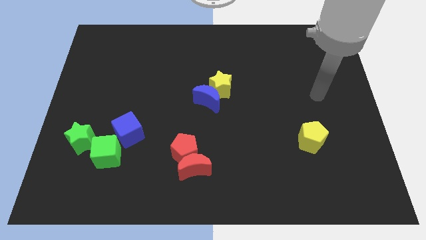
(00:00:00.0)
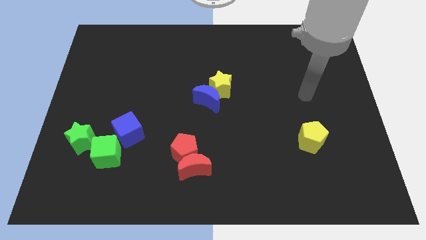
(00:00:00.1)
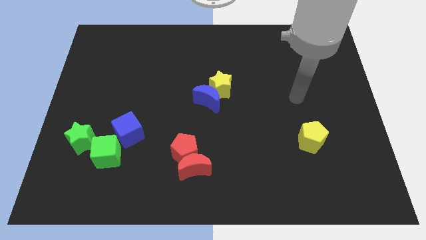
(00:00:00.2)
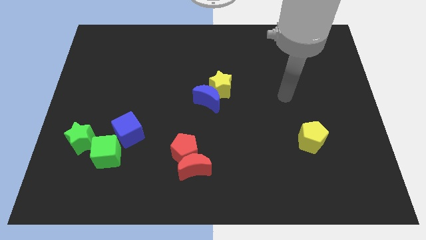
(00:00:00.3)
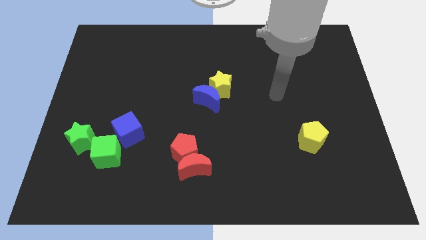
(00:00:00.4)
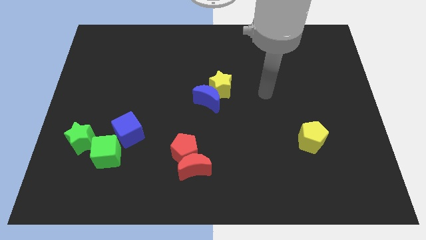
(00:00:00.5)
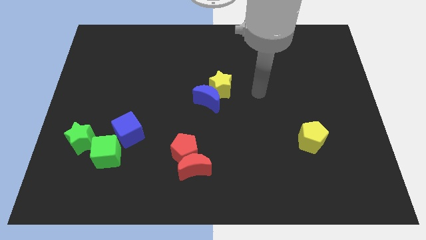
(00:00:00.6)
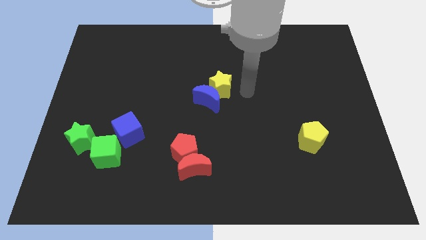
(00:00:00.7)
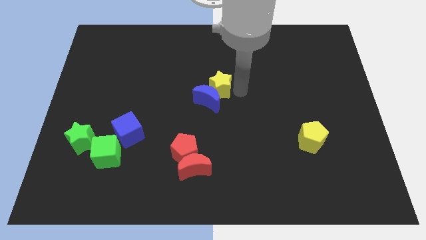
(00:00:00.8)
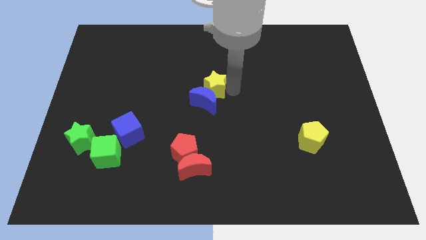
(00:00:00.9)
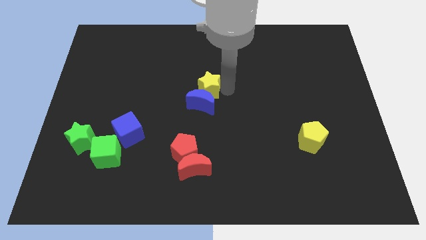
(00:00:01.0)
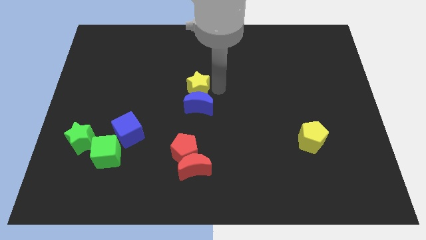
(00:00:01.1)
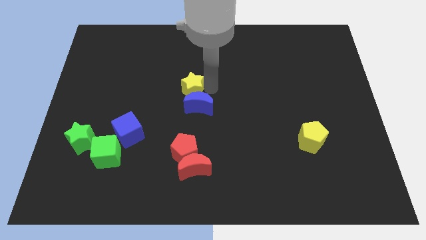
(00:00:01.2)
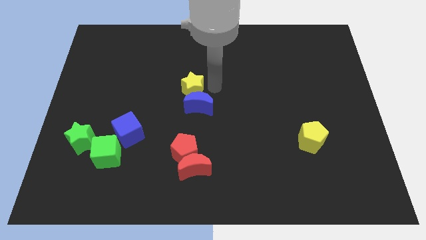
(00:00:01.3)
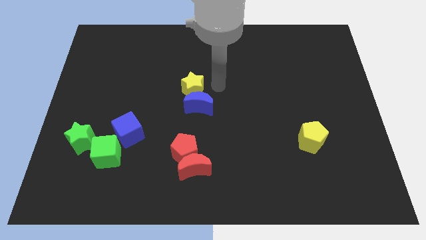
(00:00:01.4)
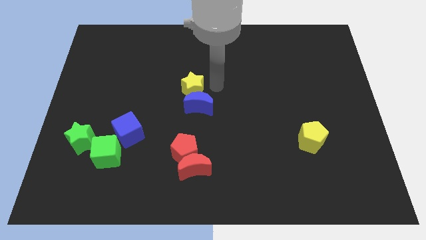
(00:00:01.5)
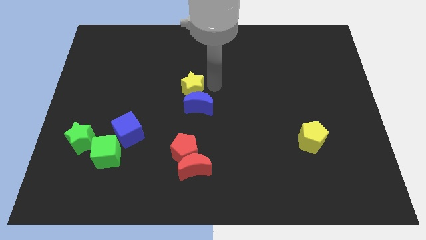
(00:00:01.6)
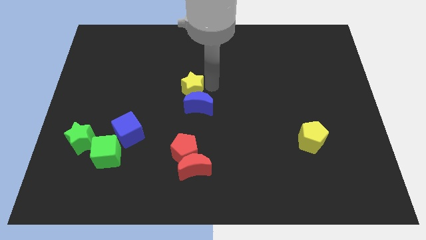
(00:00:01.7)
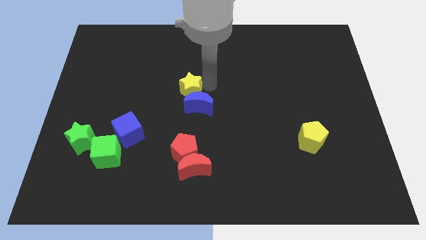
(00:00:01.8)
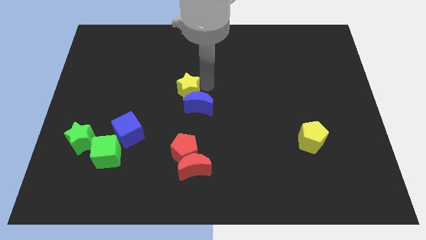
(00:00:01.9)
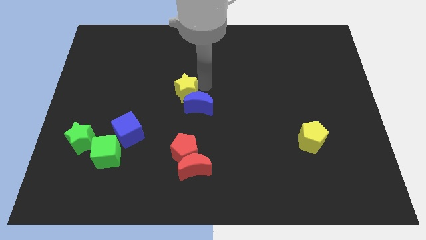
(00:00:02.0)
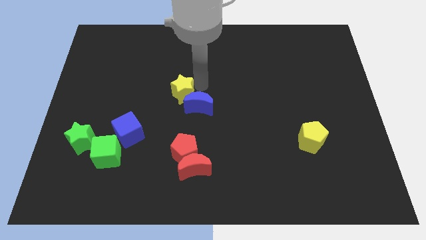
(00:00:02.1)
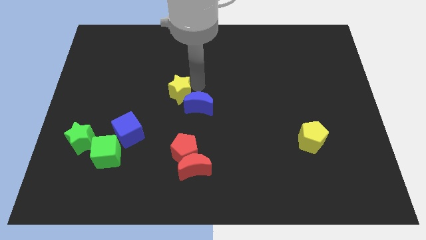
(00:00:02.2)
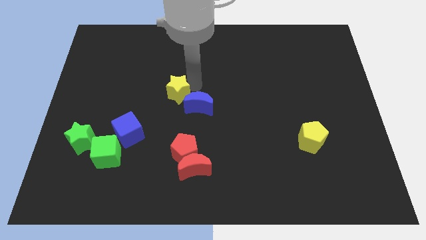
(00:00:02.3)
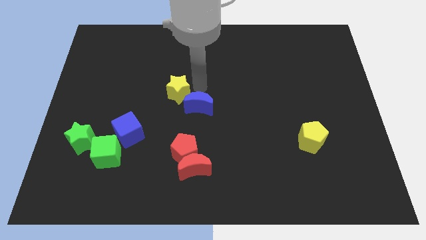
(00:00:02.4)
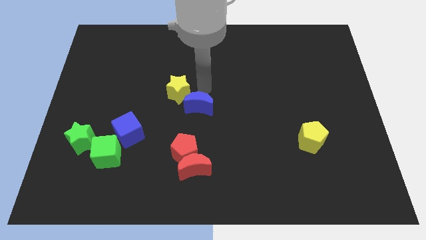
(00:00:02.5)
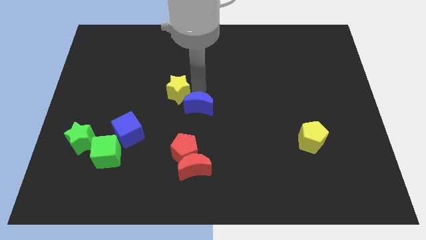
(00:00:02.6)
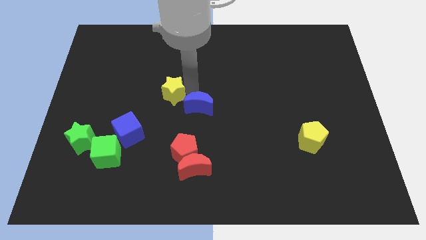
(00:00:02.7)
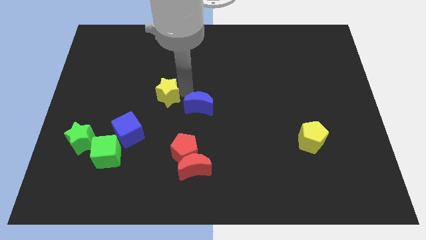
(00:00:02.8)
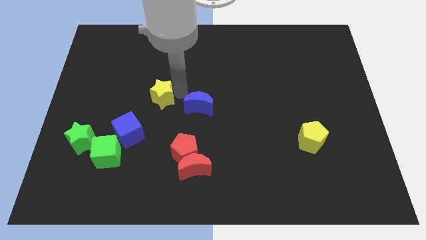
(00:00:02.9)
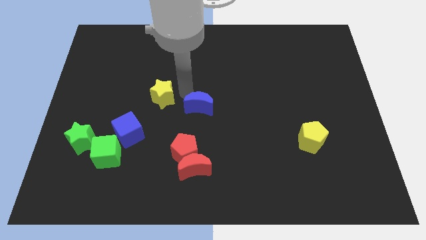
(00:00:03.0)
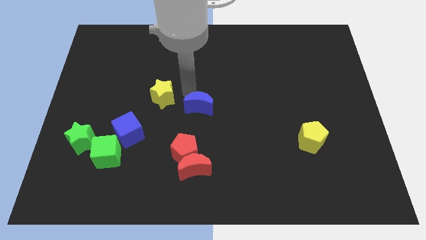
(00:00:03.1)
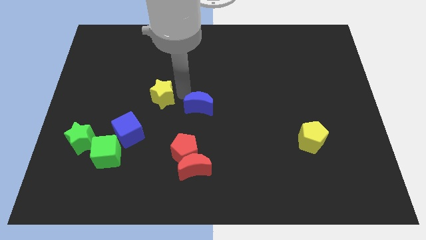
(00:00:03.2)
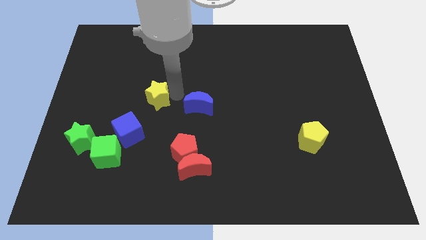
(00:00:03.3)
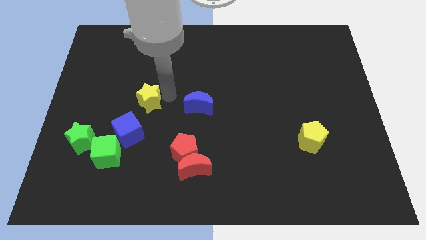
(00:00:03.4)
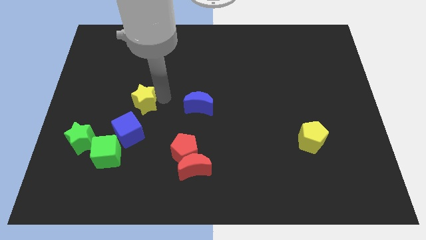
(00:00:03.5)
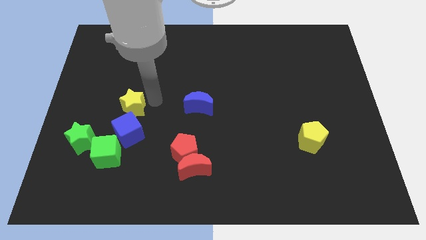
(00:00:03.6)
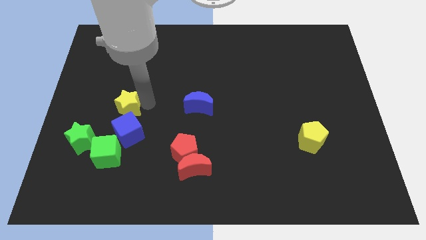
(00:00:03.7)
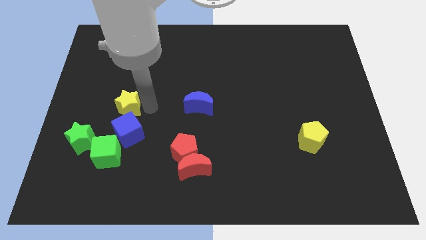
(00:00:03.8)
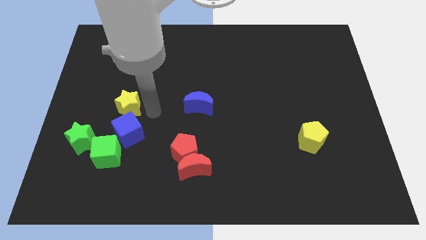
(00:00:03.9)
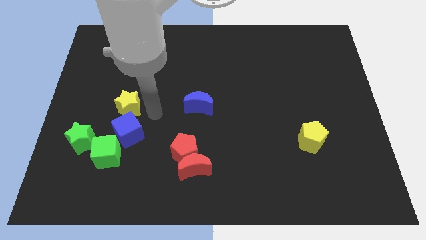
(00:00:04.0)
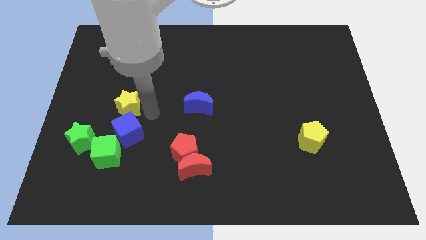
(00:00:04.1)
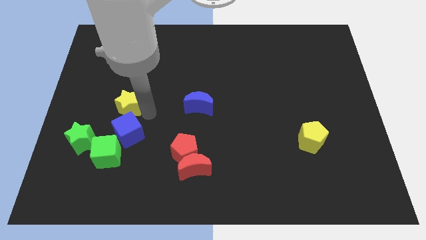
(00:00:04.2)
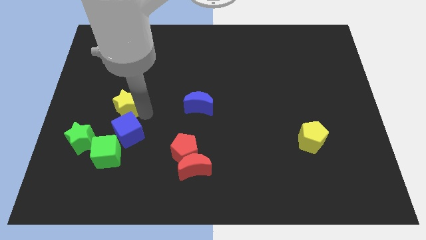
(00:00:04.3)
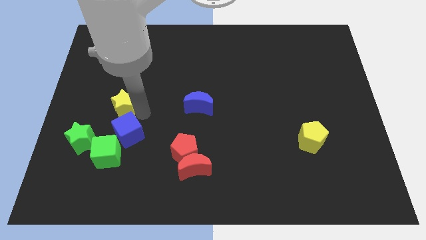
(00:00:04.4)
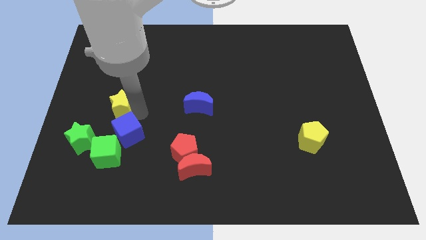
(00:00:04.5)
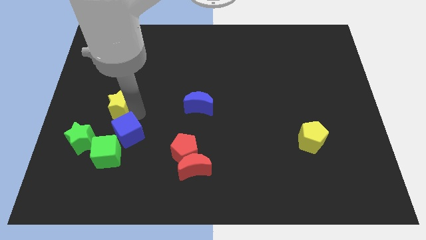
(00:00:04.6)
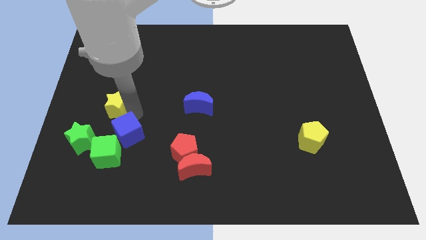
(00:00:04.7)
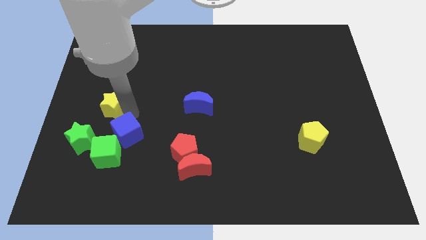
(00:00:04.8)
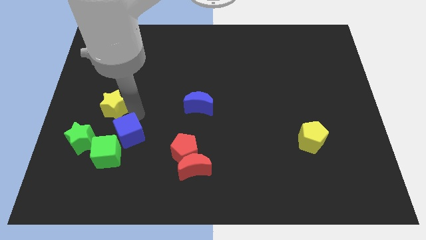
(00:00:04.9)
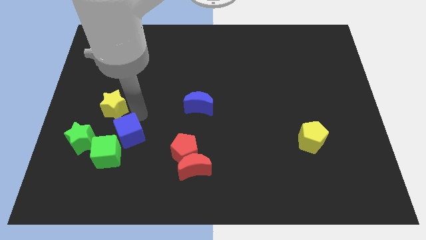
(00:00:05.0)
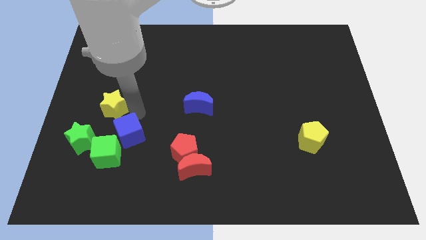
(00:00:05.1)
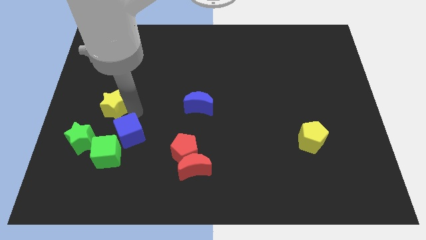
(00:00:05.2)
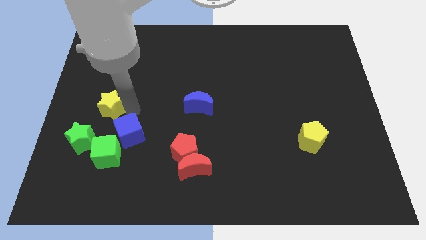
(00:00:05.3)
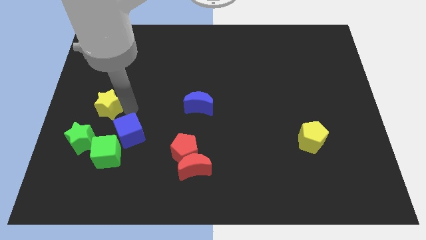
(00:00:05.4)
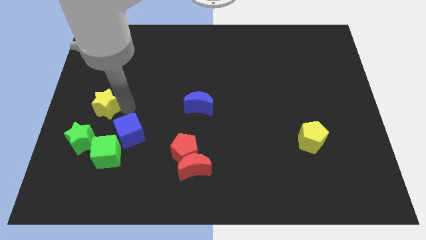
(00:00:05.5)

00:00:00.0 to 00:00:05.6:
put the yellow star to the left side
